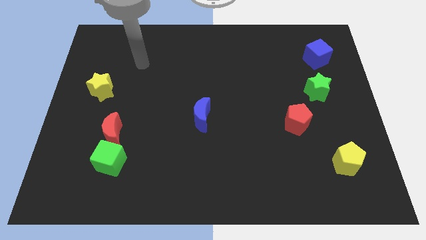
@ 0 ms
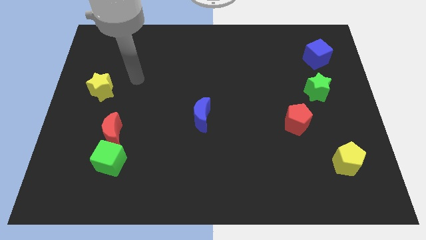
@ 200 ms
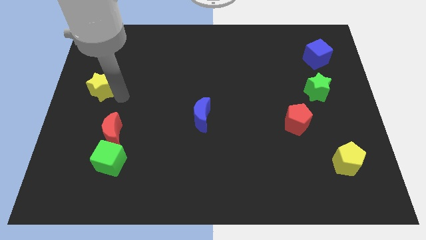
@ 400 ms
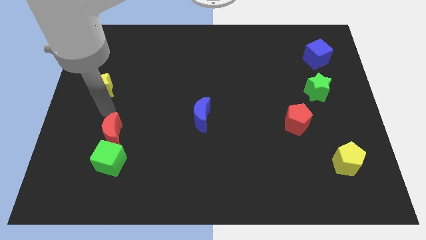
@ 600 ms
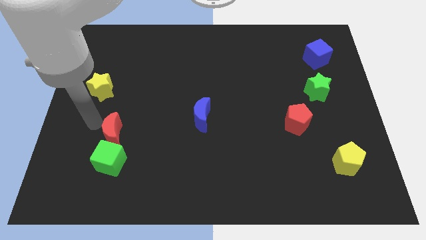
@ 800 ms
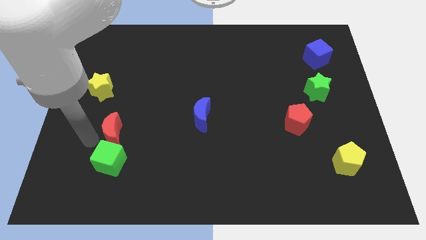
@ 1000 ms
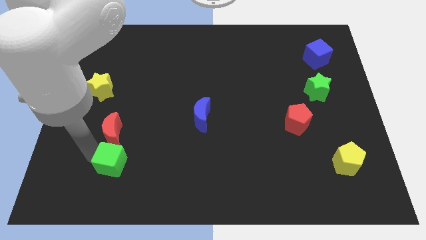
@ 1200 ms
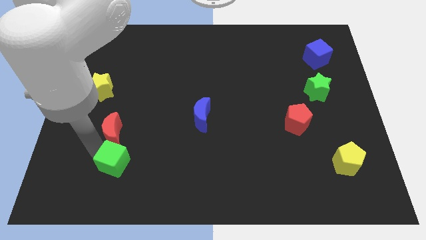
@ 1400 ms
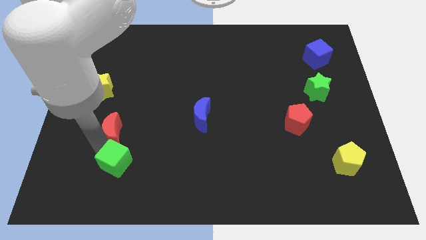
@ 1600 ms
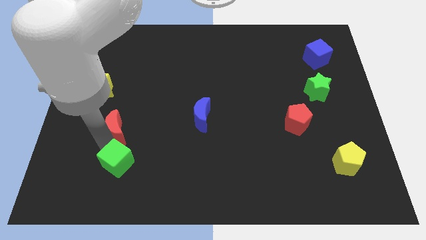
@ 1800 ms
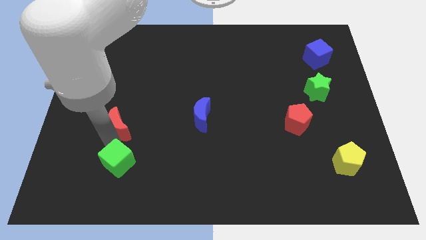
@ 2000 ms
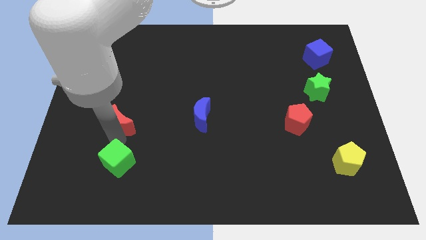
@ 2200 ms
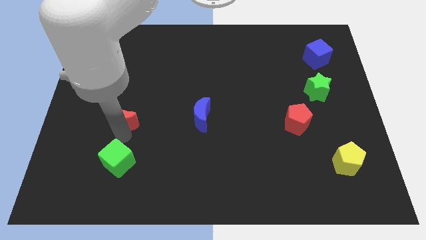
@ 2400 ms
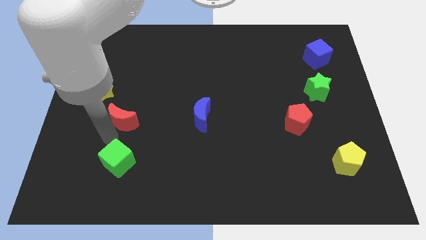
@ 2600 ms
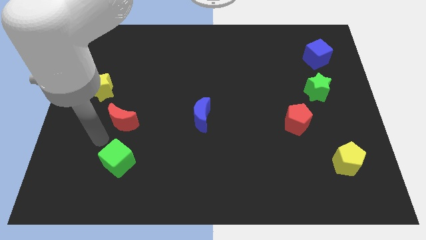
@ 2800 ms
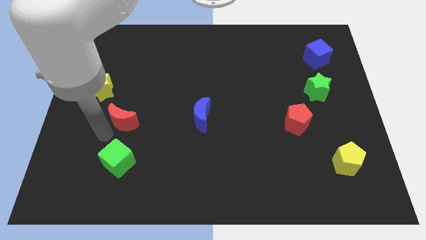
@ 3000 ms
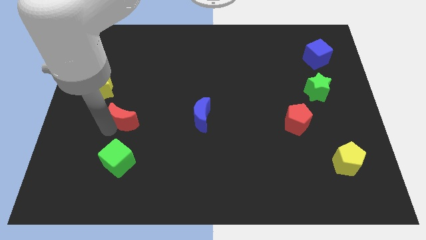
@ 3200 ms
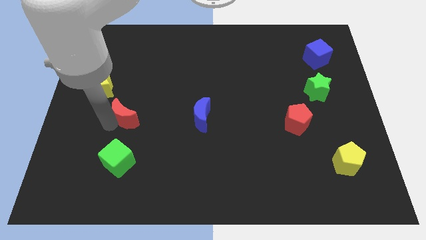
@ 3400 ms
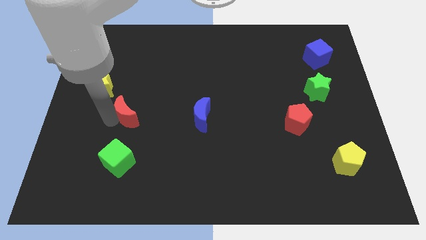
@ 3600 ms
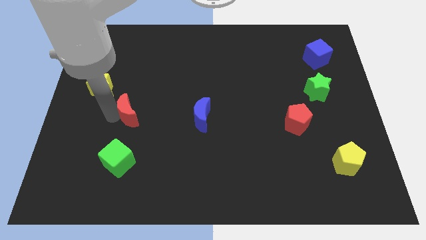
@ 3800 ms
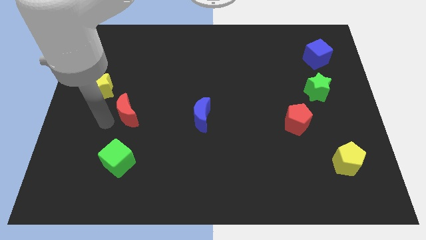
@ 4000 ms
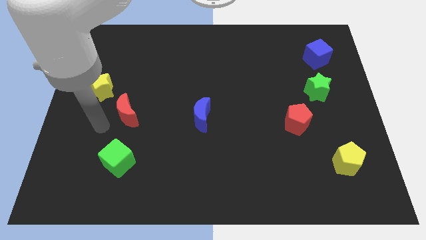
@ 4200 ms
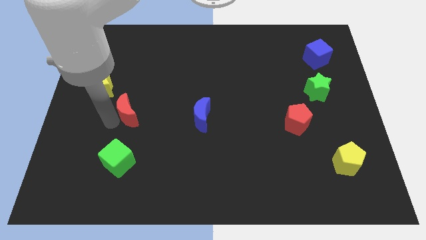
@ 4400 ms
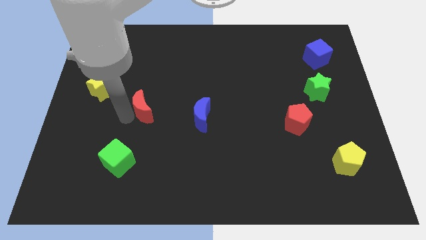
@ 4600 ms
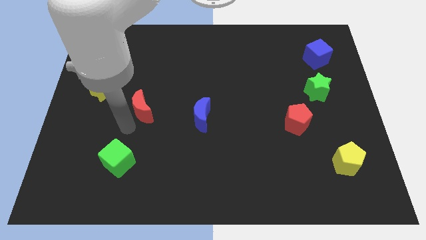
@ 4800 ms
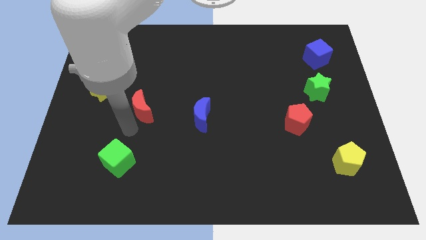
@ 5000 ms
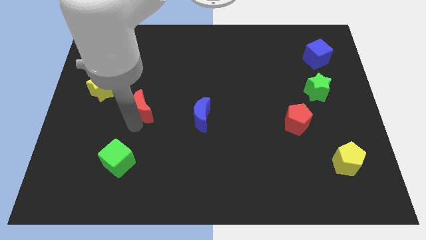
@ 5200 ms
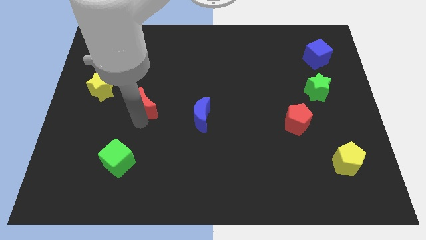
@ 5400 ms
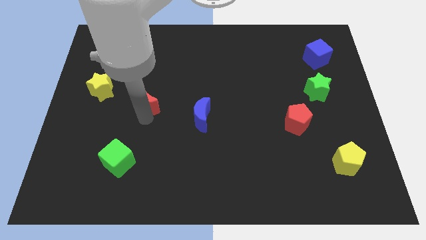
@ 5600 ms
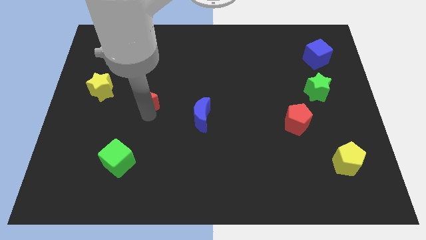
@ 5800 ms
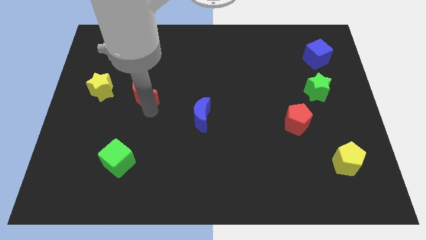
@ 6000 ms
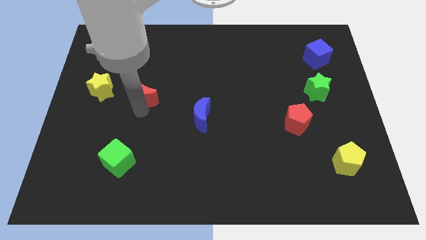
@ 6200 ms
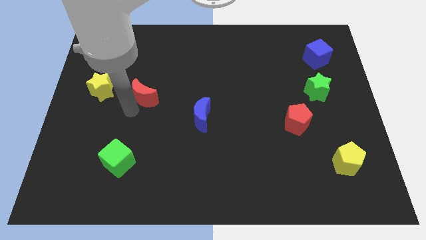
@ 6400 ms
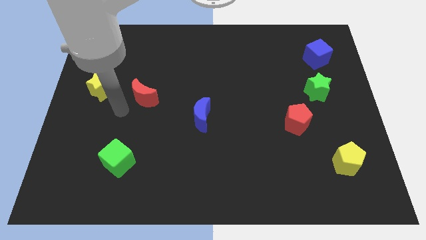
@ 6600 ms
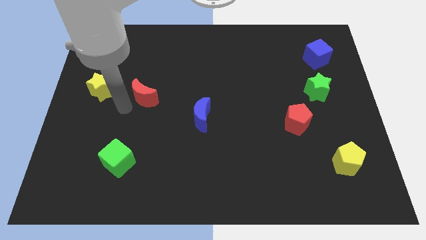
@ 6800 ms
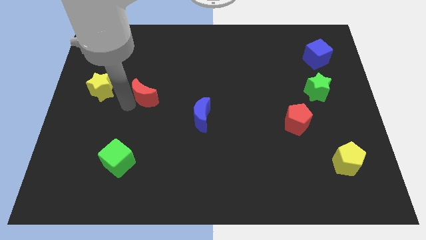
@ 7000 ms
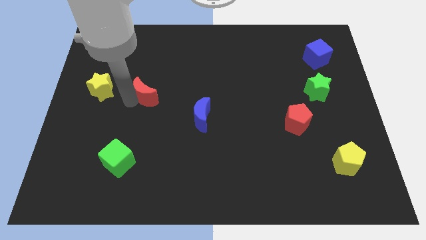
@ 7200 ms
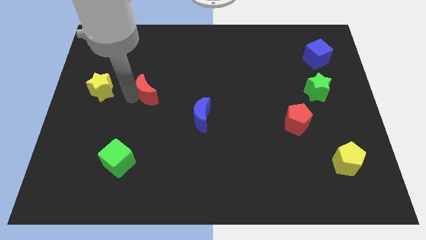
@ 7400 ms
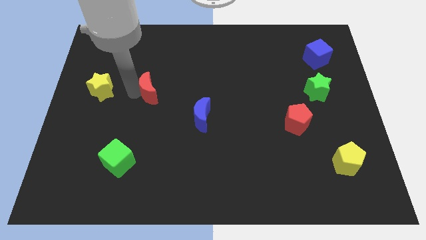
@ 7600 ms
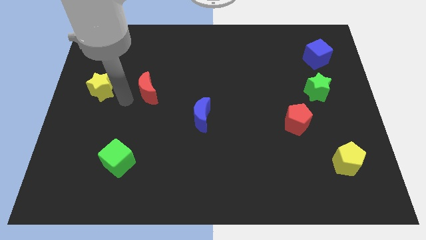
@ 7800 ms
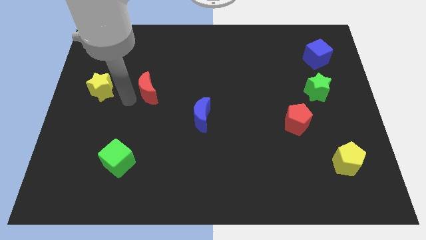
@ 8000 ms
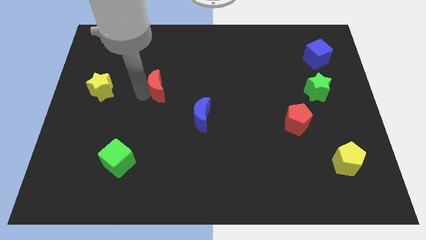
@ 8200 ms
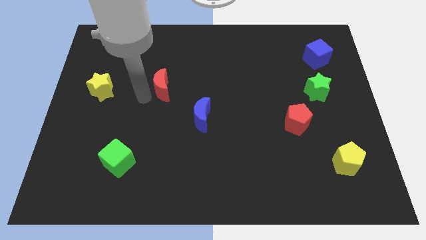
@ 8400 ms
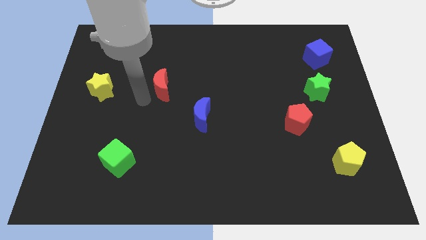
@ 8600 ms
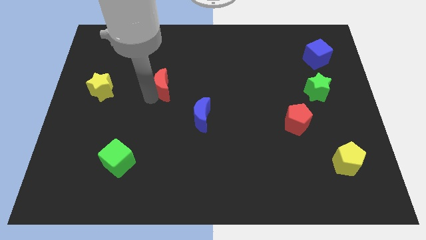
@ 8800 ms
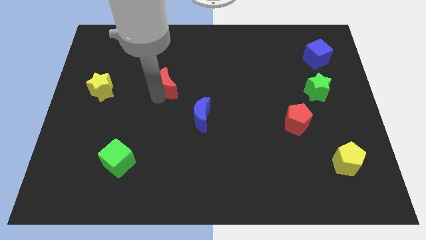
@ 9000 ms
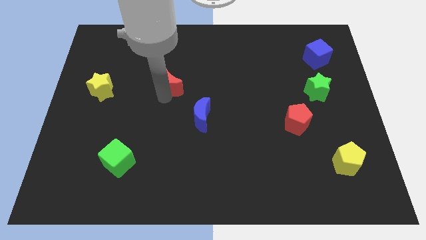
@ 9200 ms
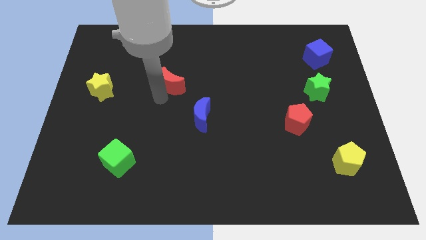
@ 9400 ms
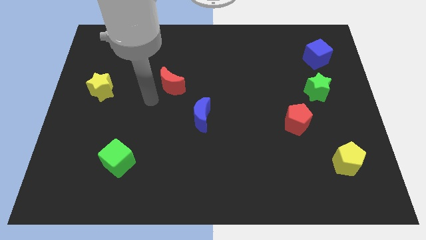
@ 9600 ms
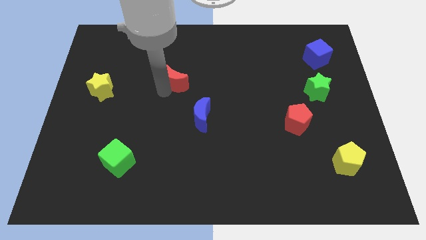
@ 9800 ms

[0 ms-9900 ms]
push the red moon up and then right

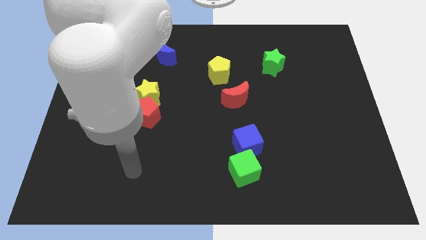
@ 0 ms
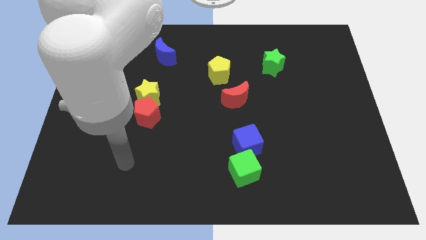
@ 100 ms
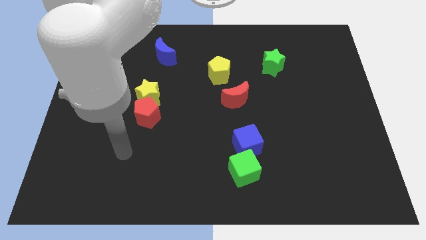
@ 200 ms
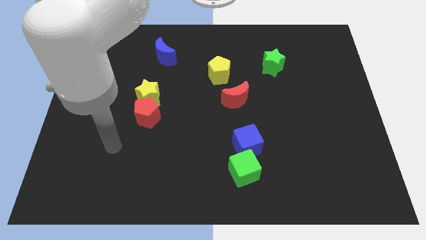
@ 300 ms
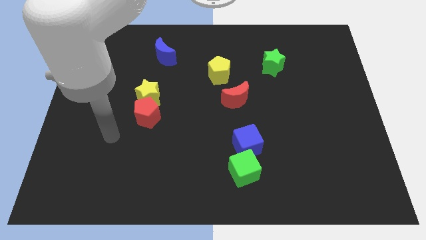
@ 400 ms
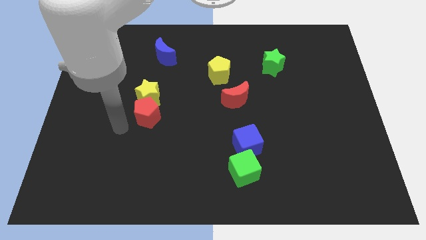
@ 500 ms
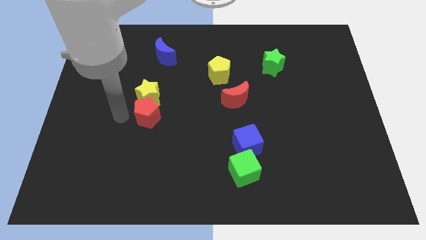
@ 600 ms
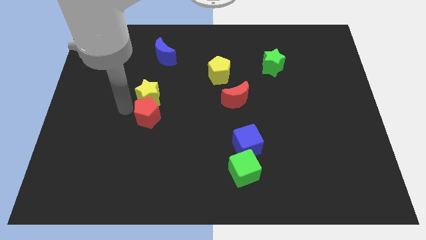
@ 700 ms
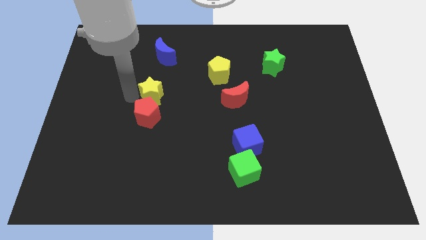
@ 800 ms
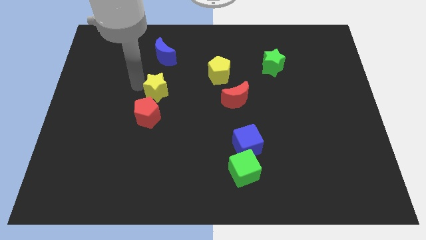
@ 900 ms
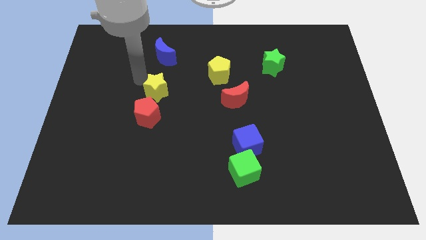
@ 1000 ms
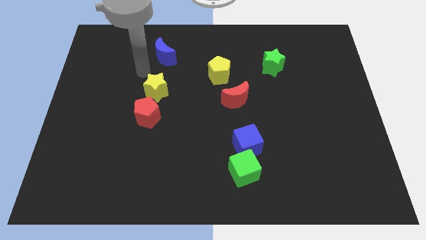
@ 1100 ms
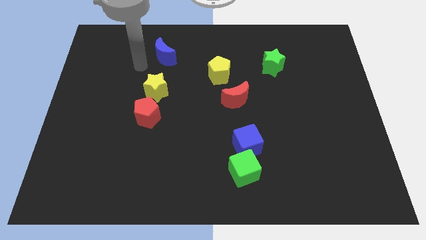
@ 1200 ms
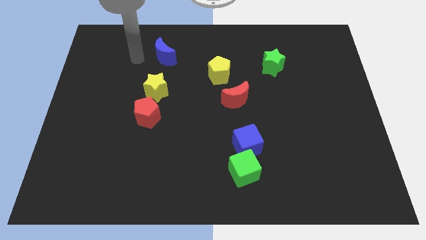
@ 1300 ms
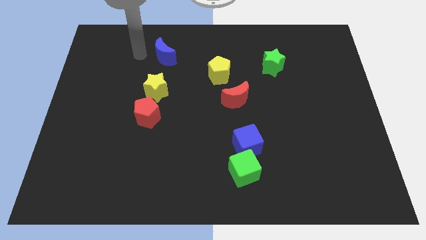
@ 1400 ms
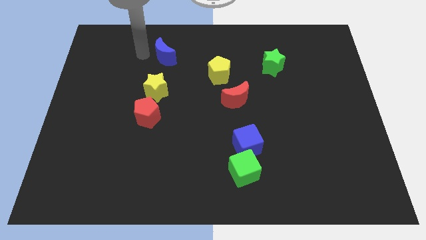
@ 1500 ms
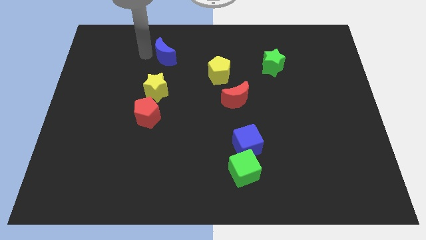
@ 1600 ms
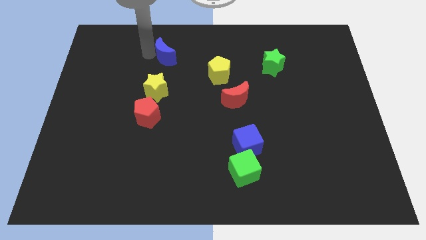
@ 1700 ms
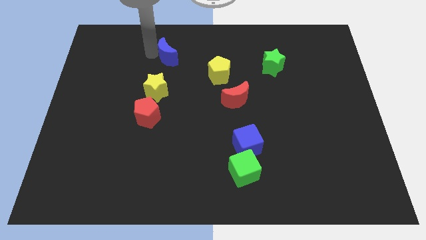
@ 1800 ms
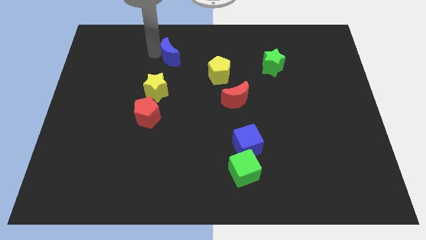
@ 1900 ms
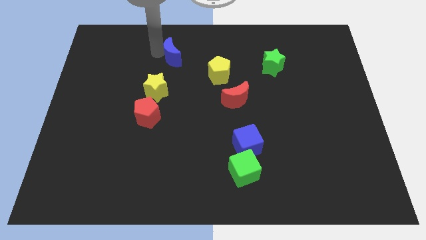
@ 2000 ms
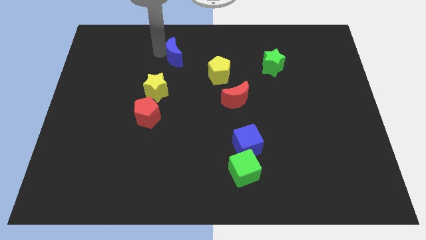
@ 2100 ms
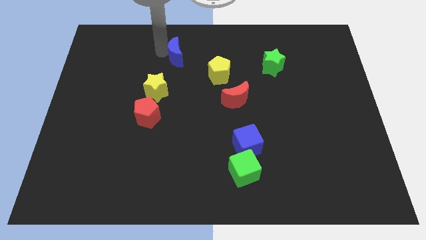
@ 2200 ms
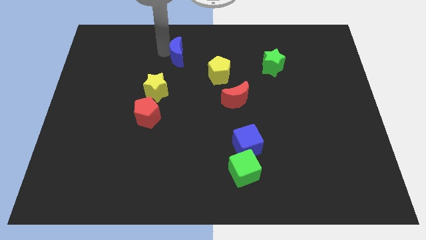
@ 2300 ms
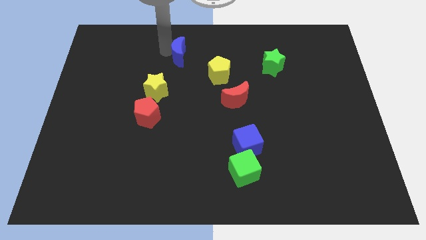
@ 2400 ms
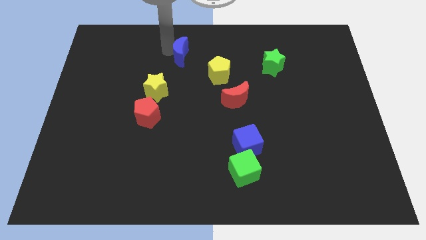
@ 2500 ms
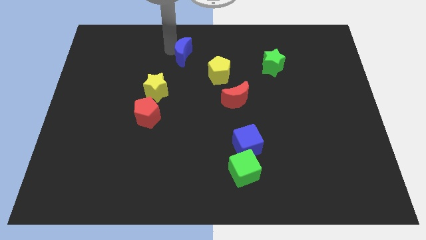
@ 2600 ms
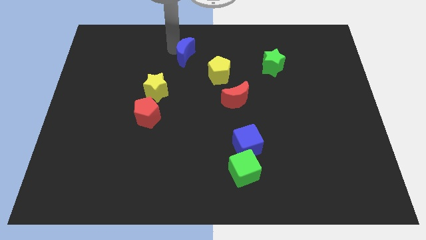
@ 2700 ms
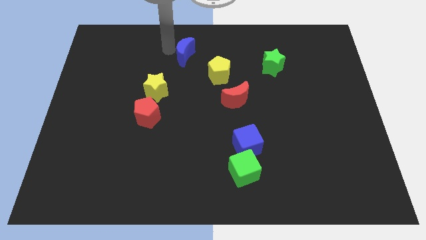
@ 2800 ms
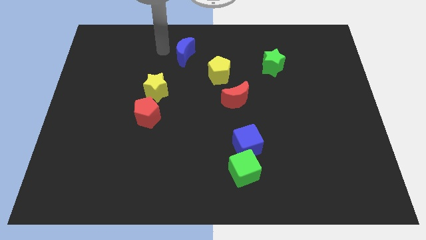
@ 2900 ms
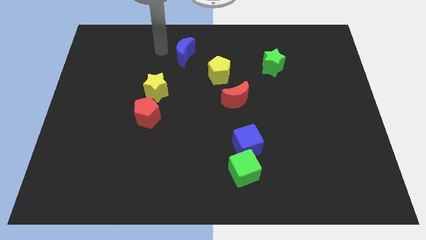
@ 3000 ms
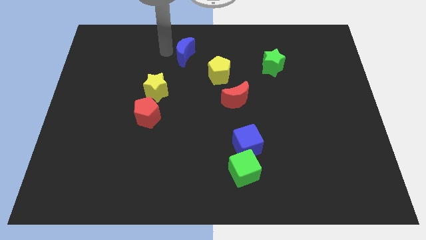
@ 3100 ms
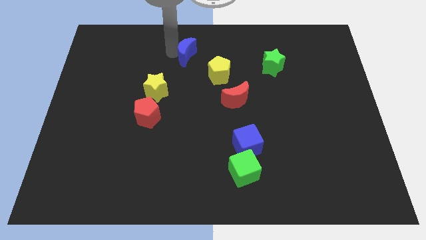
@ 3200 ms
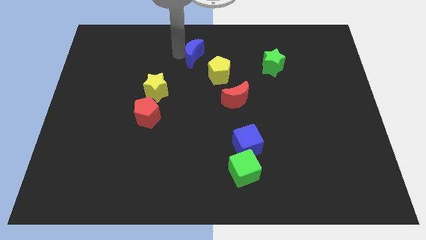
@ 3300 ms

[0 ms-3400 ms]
push the blue moon a bit right
